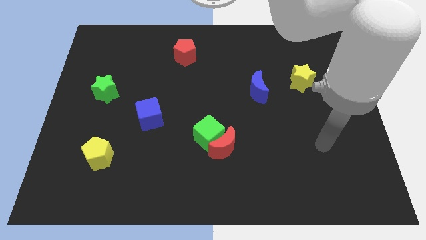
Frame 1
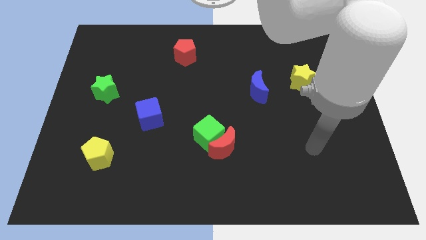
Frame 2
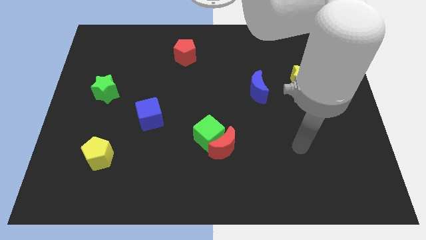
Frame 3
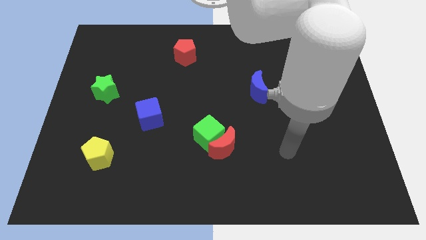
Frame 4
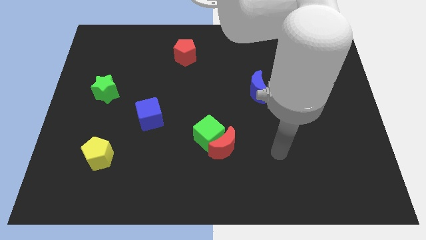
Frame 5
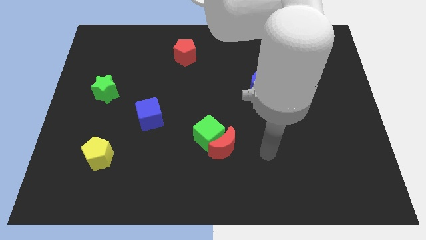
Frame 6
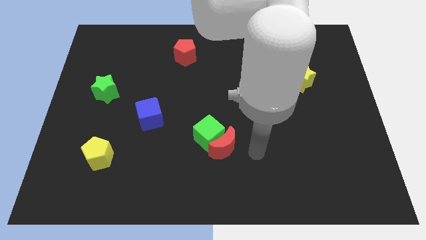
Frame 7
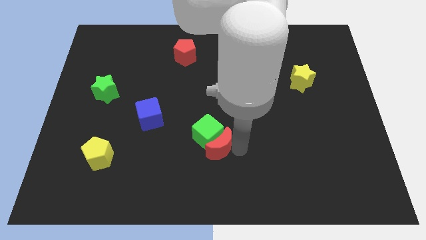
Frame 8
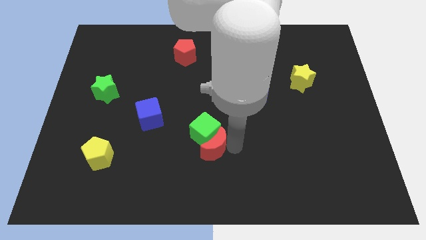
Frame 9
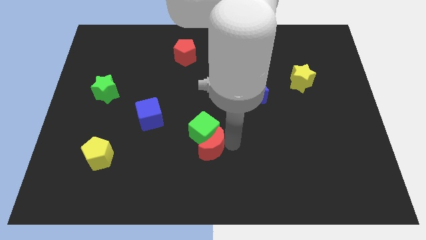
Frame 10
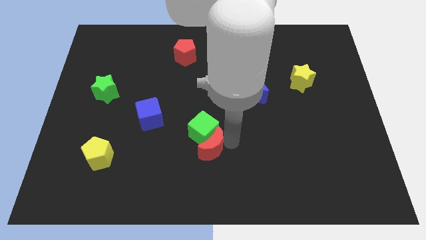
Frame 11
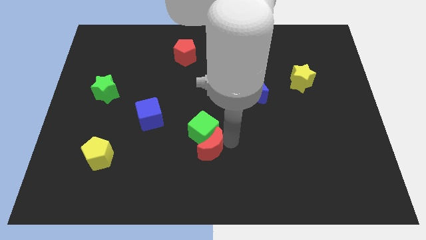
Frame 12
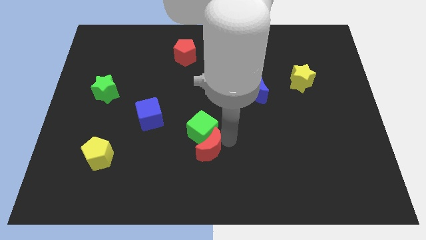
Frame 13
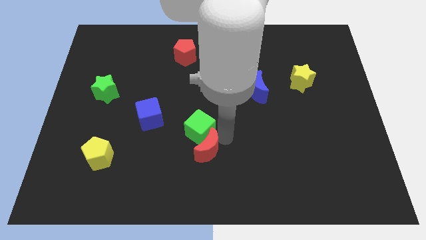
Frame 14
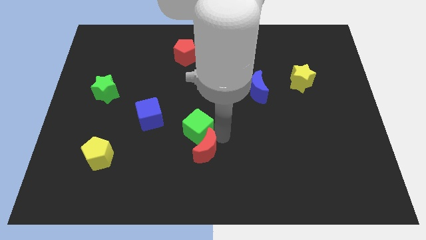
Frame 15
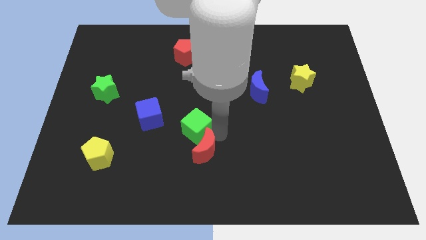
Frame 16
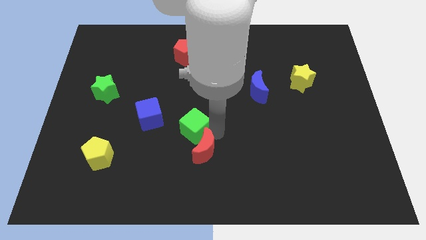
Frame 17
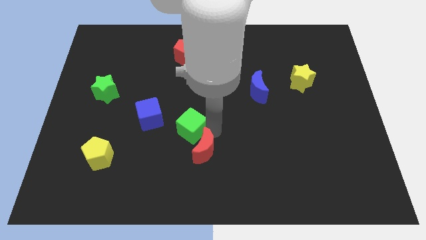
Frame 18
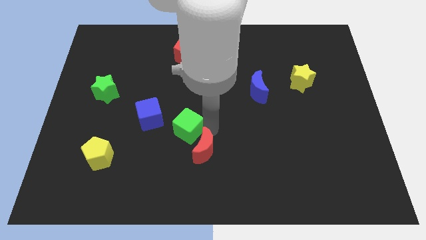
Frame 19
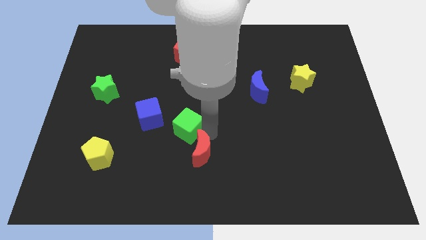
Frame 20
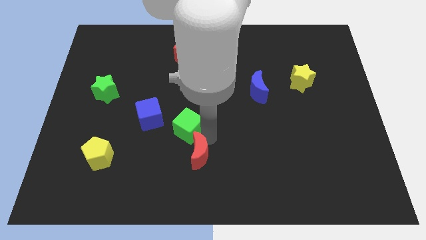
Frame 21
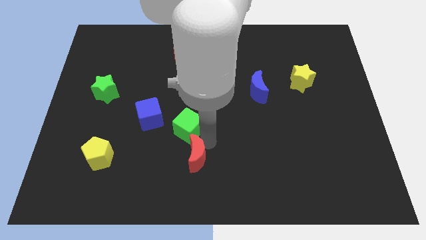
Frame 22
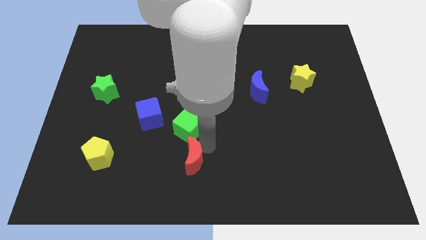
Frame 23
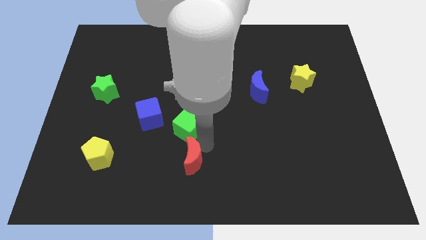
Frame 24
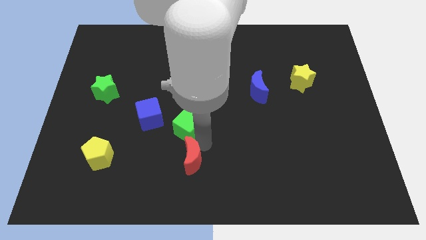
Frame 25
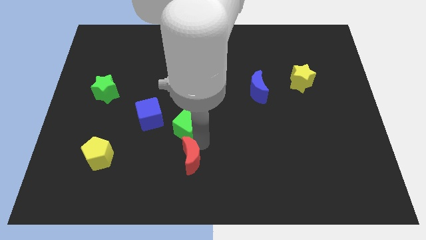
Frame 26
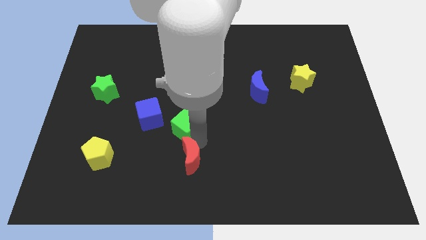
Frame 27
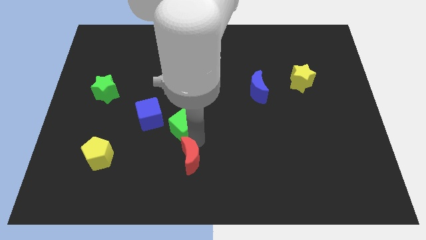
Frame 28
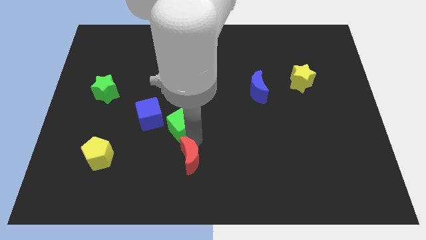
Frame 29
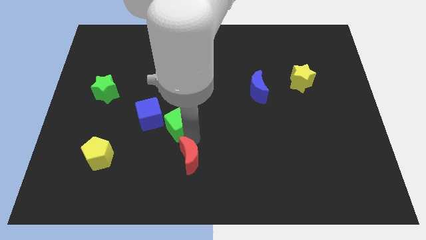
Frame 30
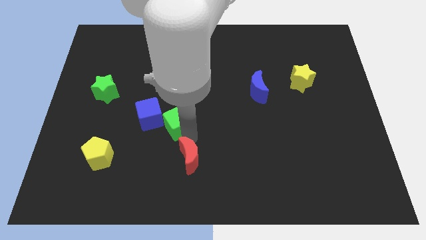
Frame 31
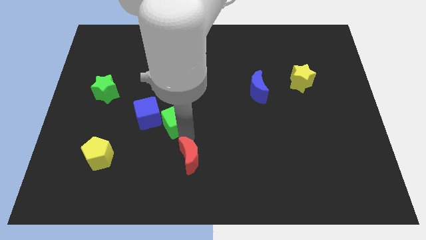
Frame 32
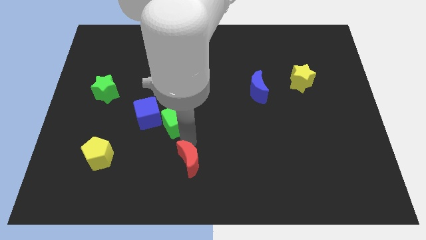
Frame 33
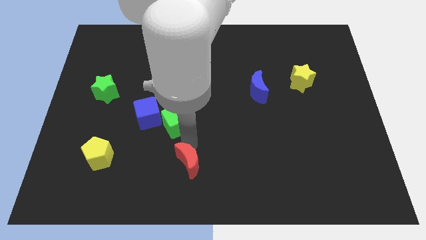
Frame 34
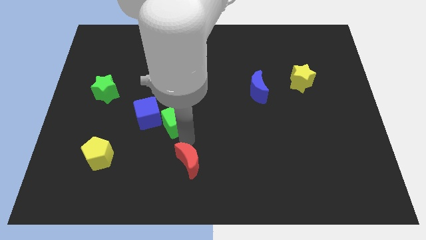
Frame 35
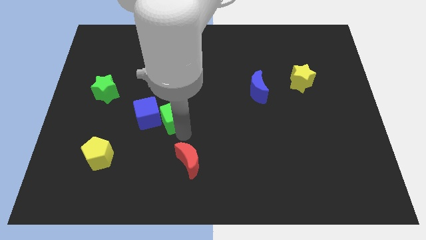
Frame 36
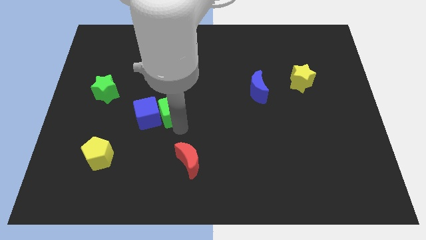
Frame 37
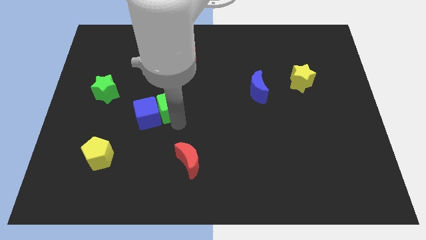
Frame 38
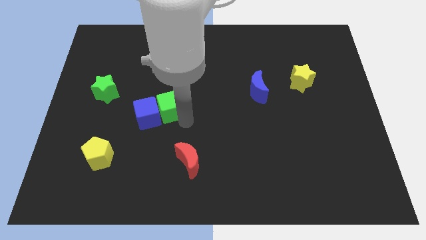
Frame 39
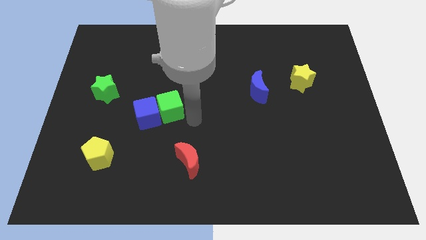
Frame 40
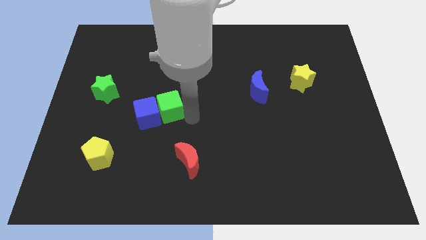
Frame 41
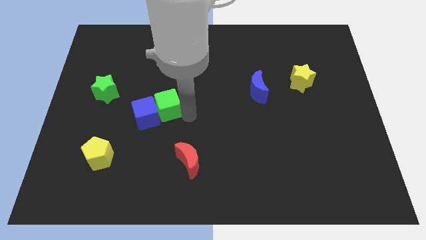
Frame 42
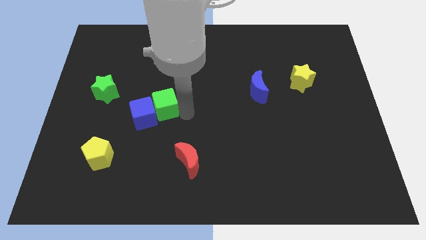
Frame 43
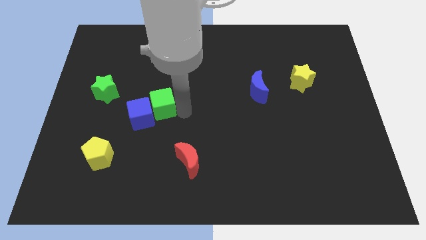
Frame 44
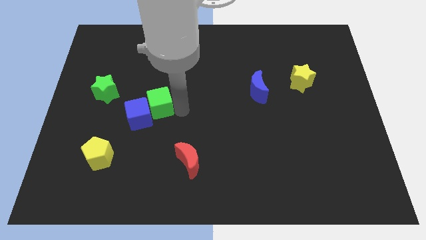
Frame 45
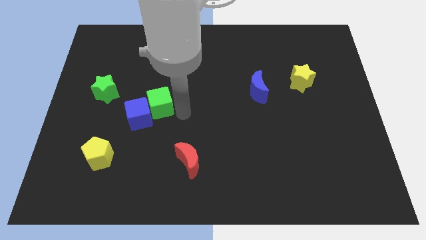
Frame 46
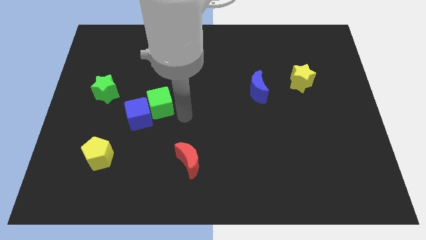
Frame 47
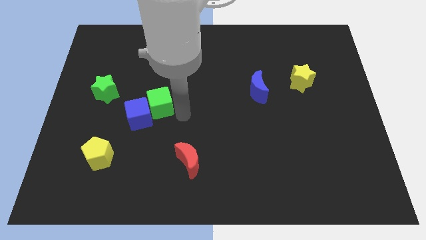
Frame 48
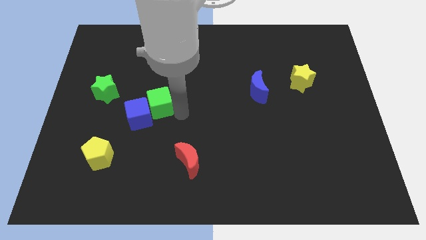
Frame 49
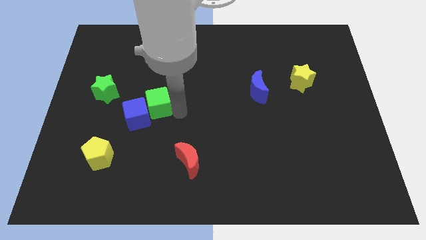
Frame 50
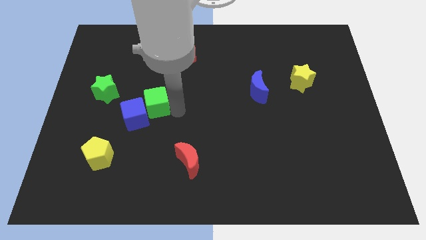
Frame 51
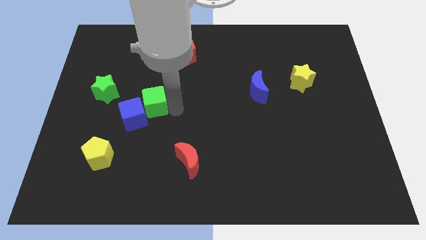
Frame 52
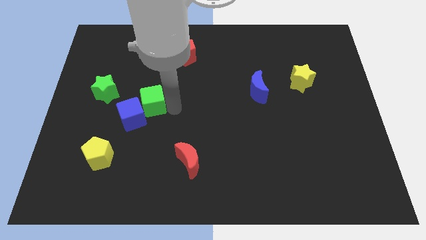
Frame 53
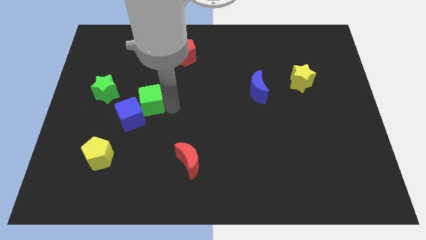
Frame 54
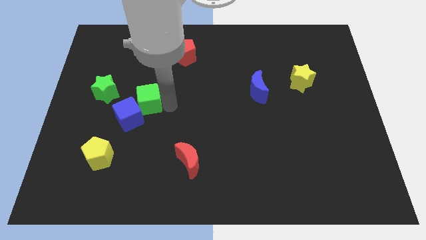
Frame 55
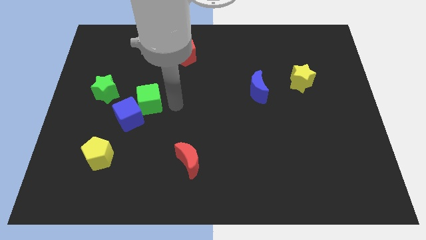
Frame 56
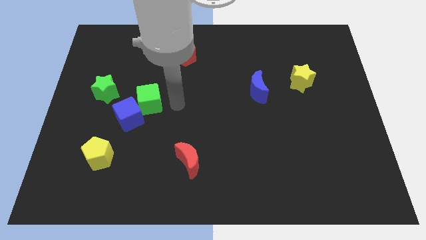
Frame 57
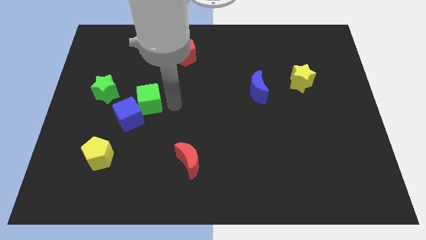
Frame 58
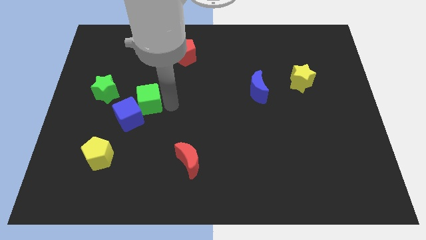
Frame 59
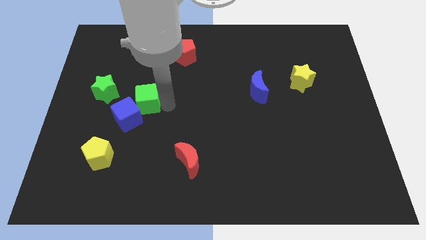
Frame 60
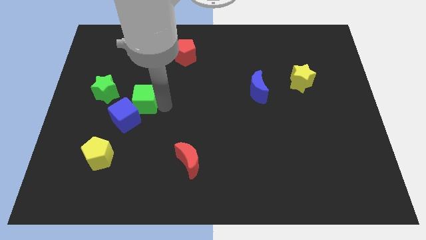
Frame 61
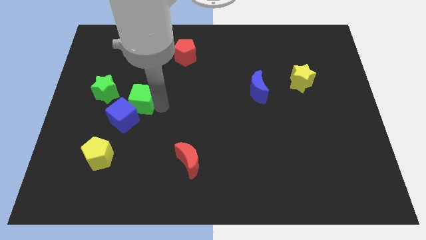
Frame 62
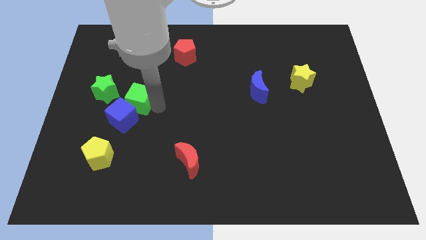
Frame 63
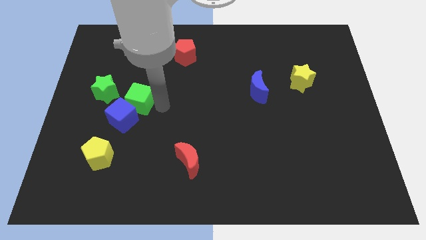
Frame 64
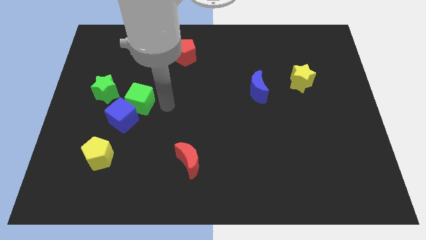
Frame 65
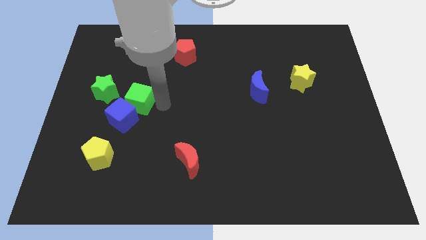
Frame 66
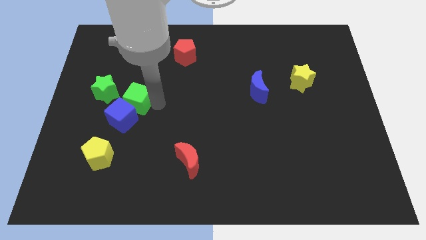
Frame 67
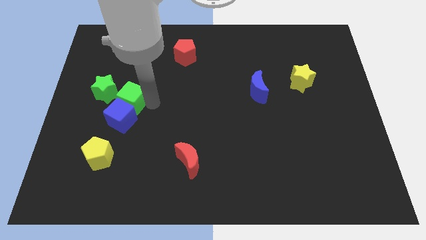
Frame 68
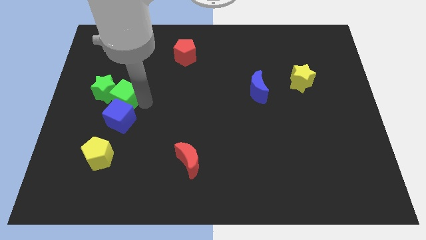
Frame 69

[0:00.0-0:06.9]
move the green cube next to the green star

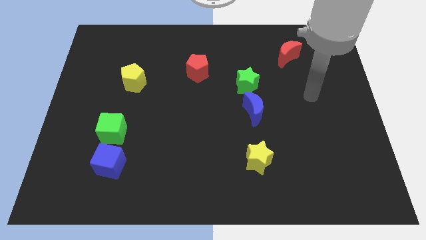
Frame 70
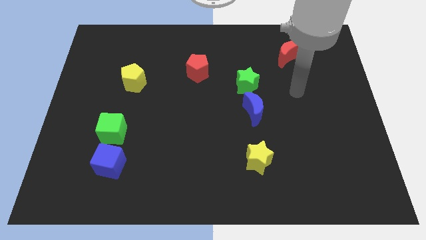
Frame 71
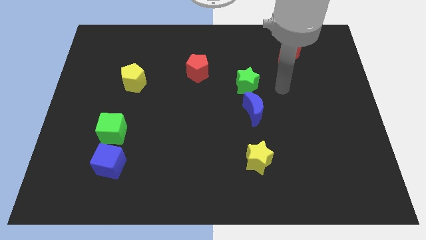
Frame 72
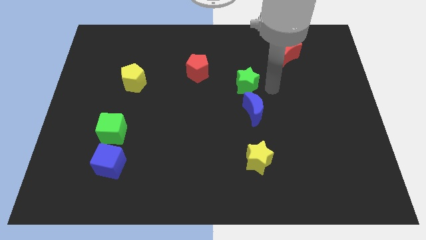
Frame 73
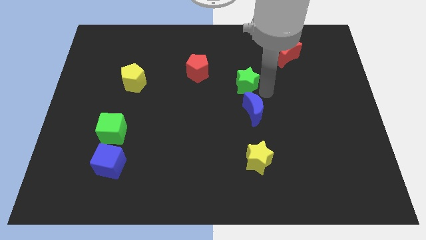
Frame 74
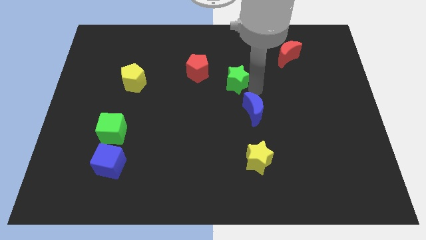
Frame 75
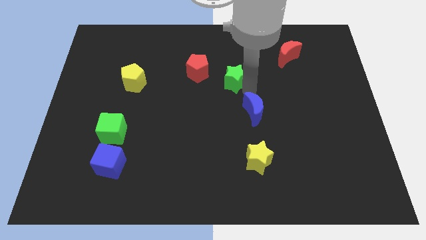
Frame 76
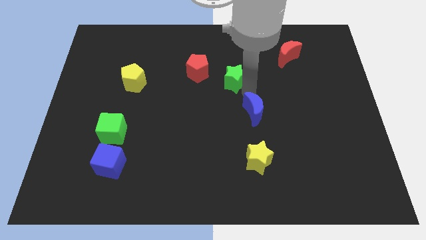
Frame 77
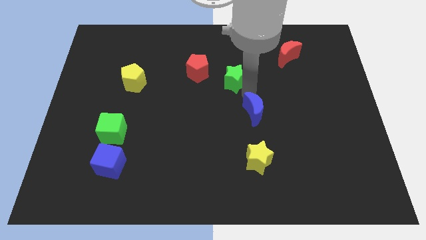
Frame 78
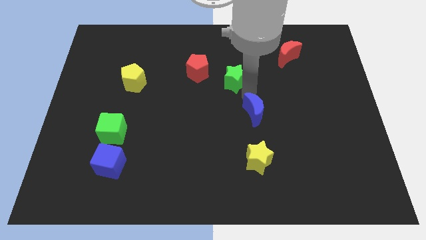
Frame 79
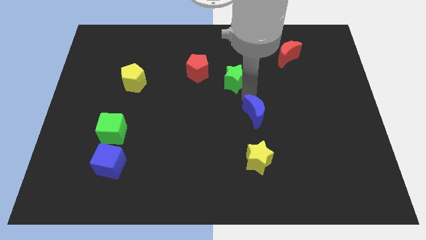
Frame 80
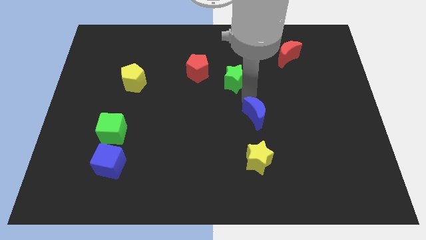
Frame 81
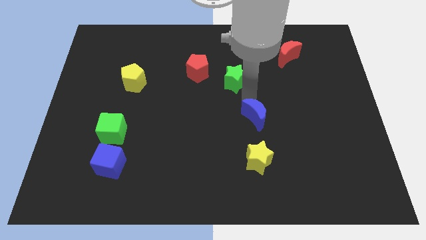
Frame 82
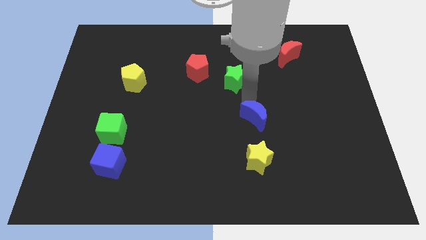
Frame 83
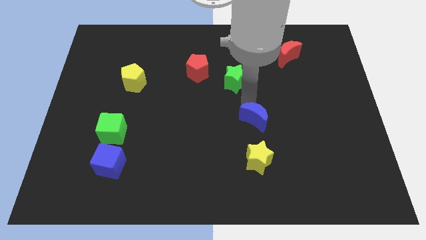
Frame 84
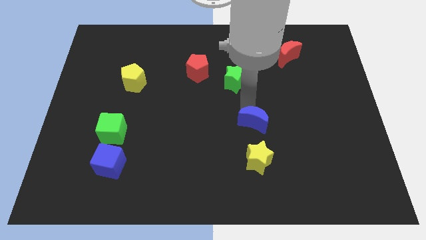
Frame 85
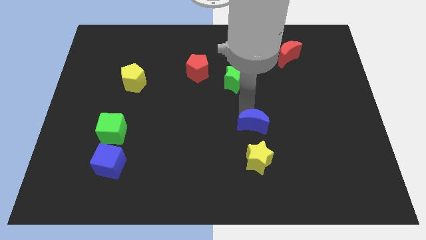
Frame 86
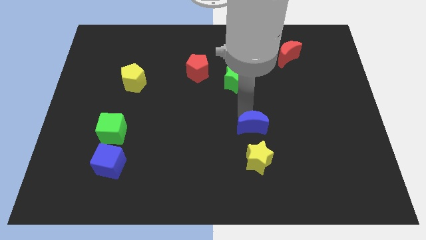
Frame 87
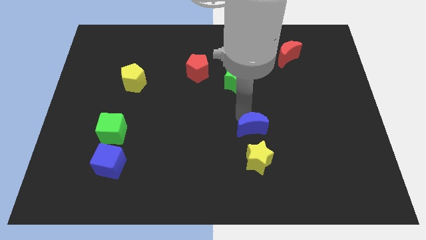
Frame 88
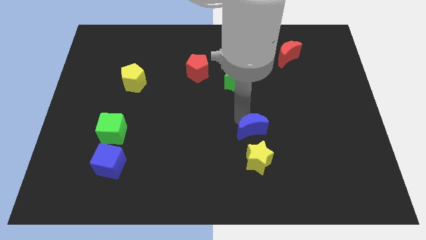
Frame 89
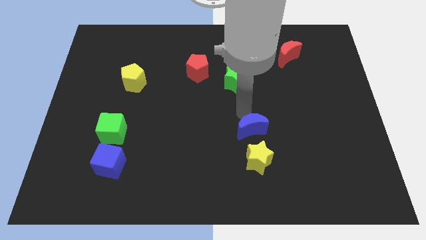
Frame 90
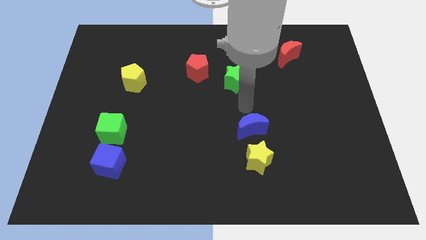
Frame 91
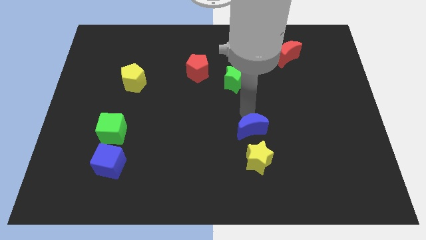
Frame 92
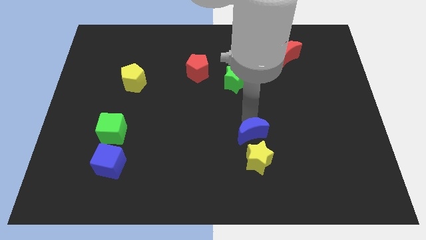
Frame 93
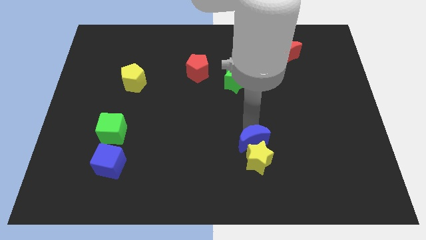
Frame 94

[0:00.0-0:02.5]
push the blue moon next to the yellow star
